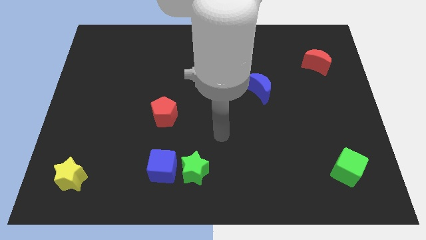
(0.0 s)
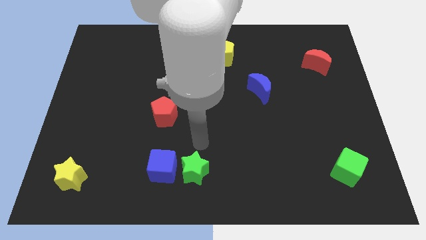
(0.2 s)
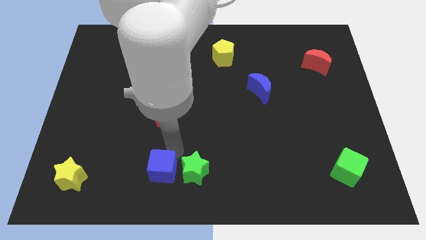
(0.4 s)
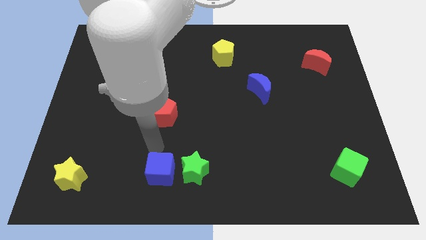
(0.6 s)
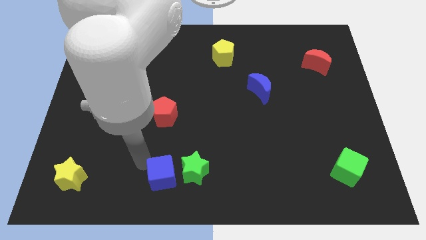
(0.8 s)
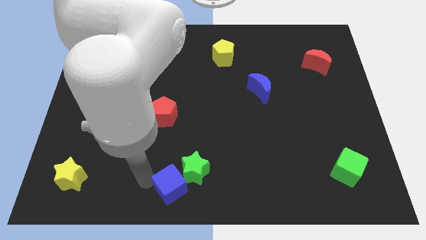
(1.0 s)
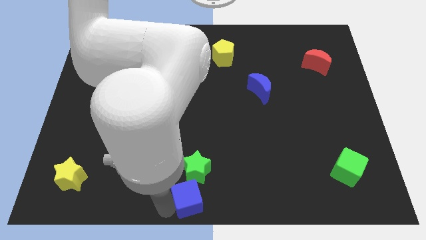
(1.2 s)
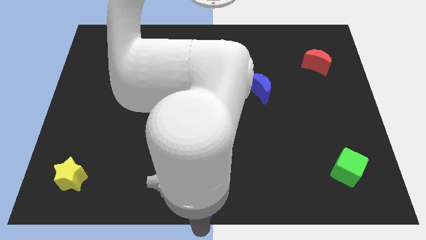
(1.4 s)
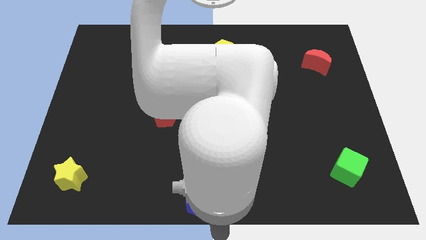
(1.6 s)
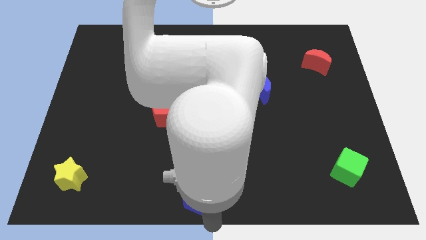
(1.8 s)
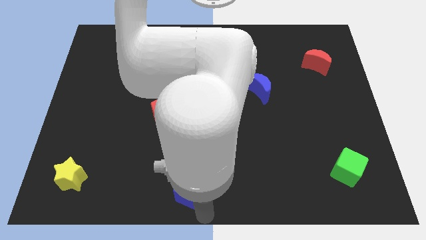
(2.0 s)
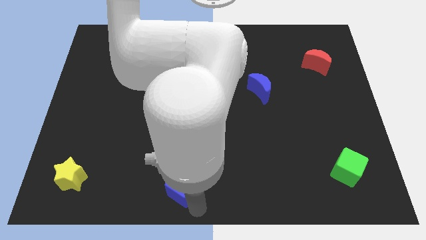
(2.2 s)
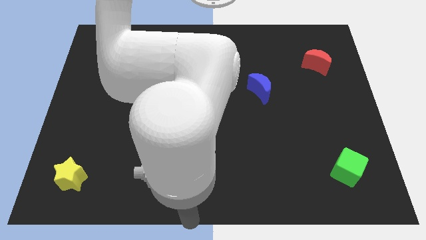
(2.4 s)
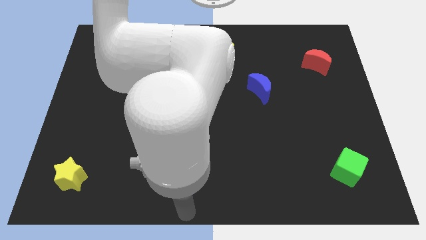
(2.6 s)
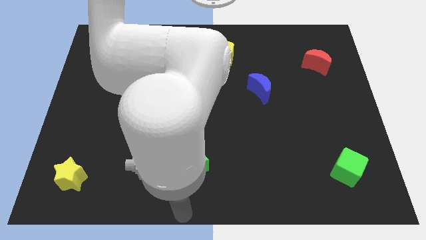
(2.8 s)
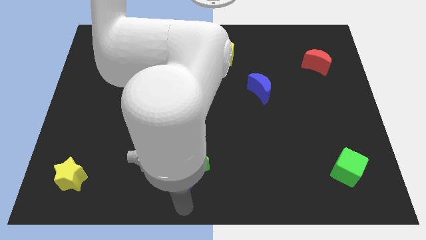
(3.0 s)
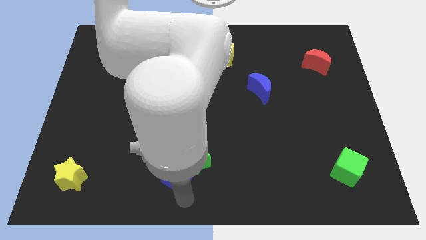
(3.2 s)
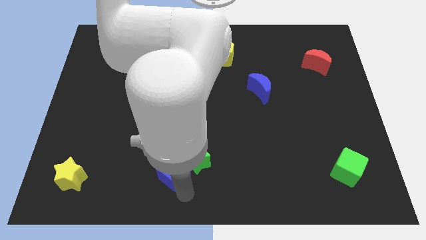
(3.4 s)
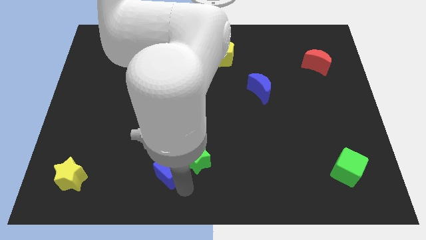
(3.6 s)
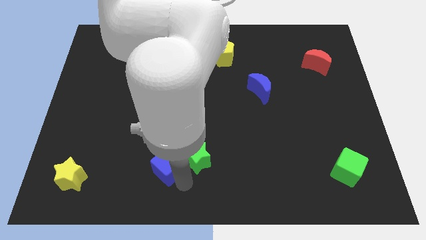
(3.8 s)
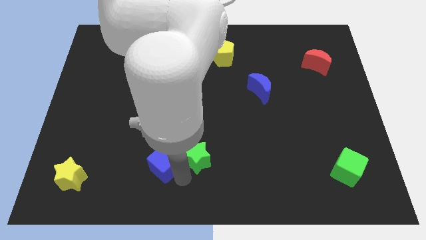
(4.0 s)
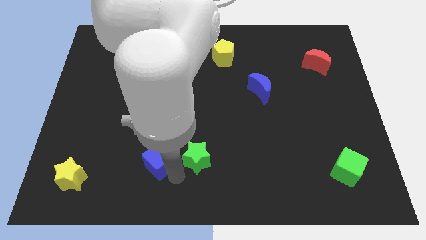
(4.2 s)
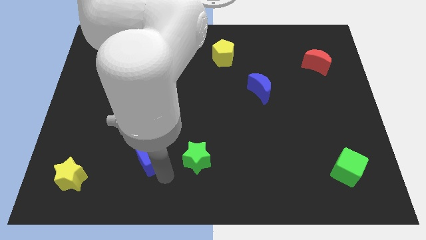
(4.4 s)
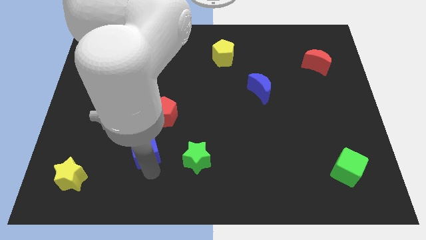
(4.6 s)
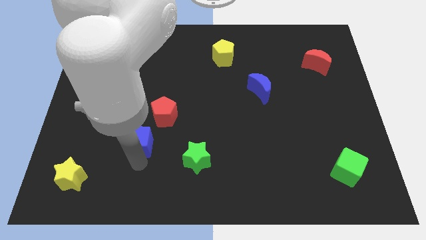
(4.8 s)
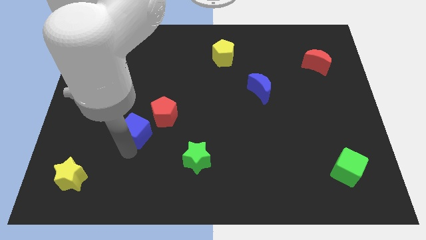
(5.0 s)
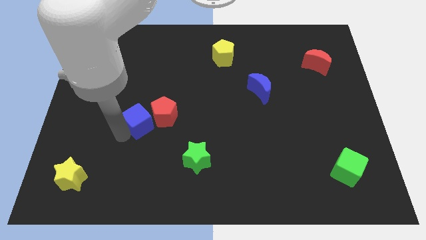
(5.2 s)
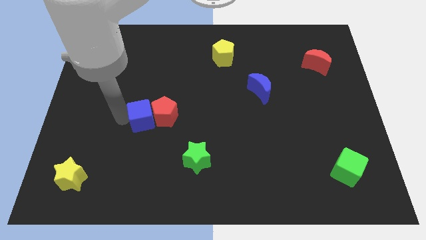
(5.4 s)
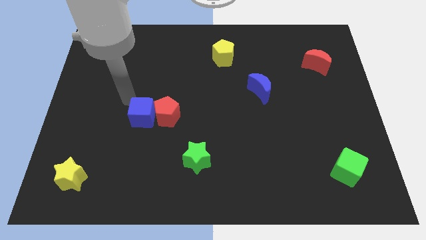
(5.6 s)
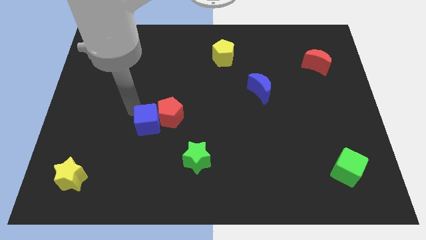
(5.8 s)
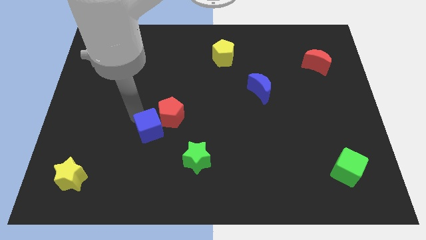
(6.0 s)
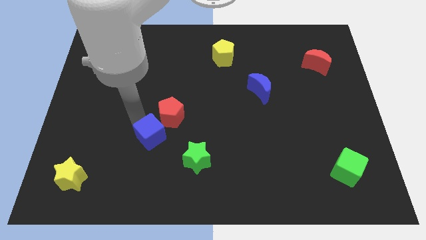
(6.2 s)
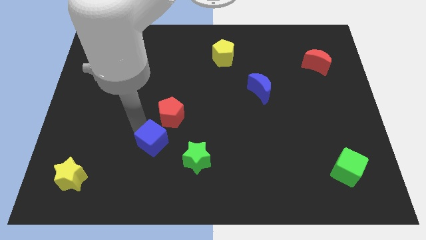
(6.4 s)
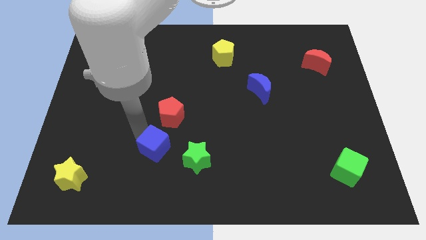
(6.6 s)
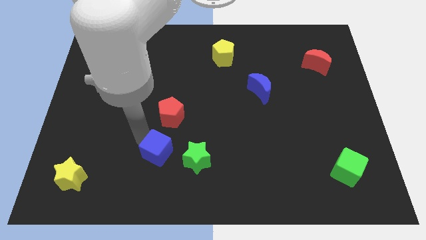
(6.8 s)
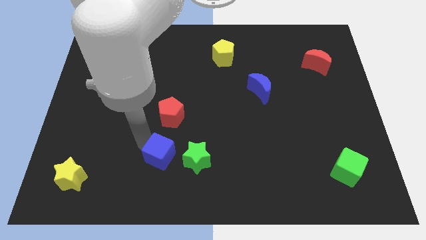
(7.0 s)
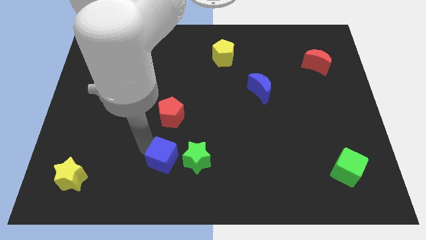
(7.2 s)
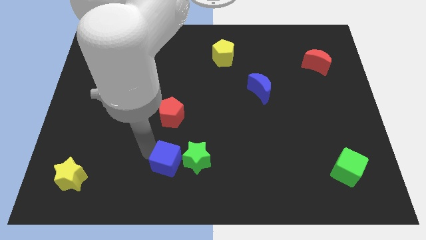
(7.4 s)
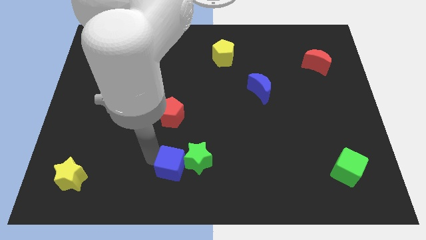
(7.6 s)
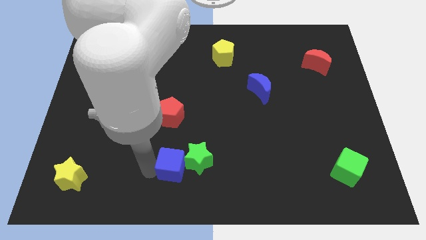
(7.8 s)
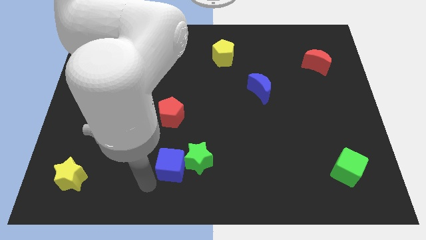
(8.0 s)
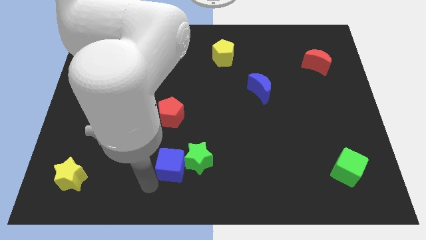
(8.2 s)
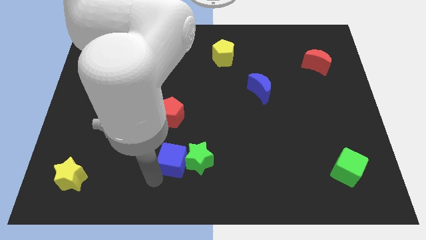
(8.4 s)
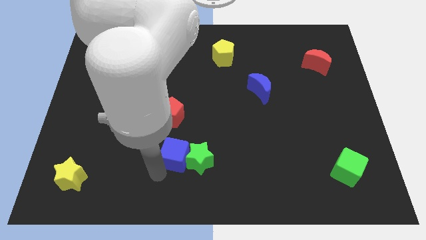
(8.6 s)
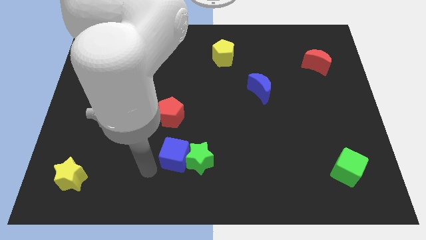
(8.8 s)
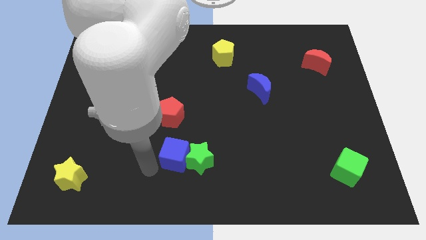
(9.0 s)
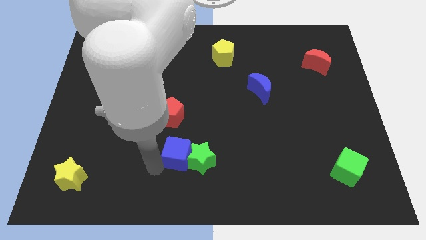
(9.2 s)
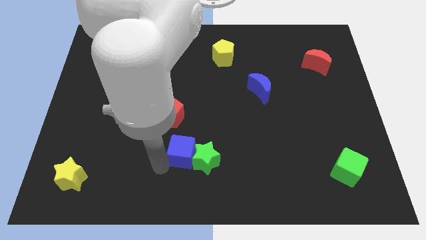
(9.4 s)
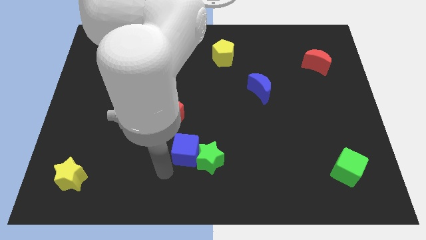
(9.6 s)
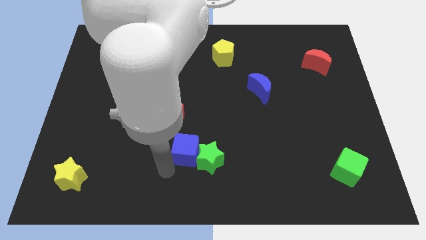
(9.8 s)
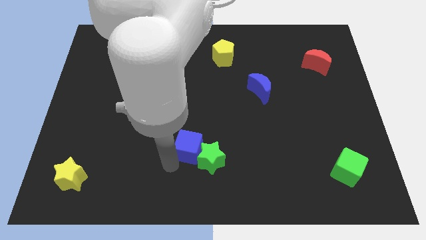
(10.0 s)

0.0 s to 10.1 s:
slide the blue cube a little bit up and then to the right

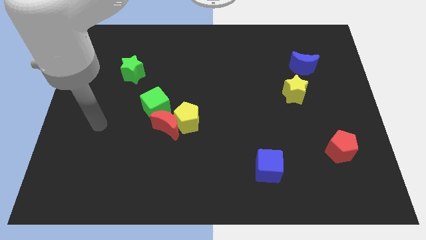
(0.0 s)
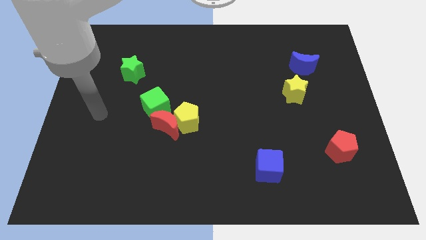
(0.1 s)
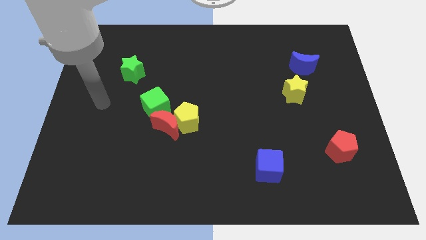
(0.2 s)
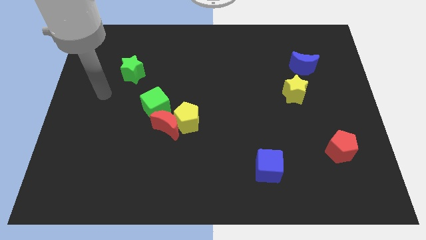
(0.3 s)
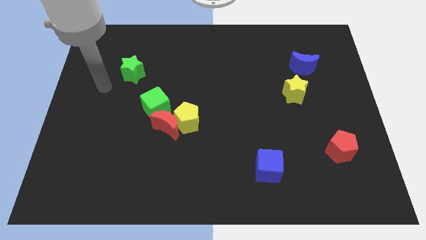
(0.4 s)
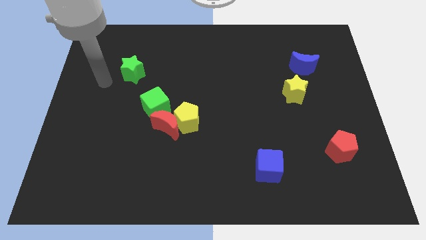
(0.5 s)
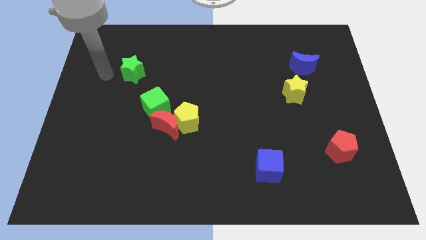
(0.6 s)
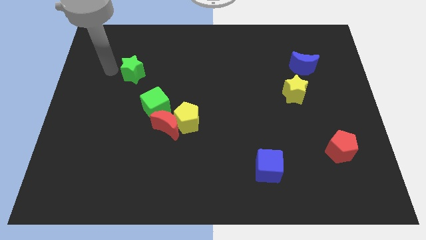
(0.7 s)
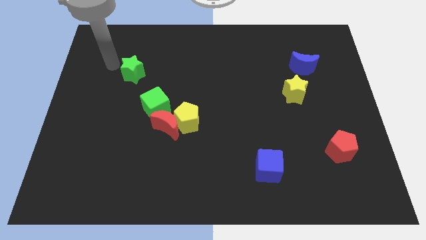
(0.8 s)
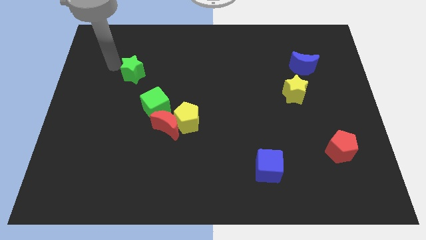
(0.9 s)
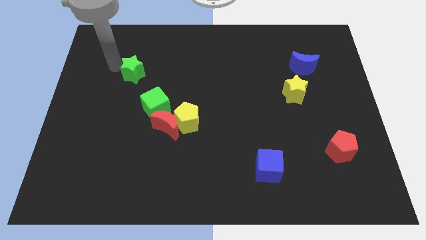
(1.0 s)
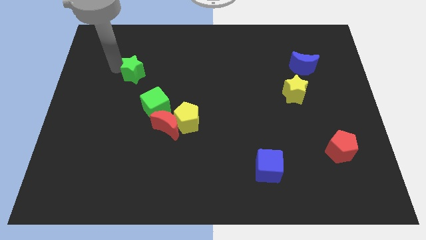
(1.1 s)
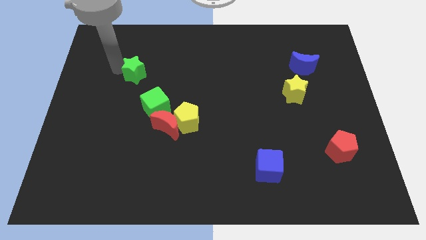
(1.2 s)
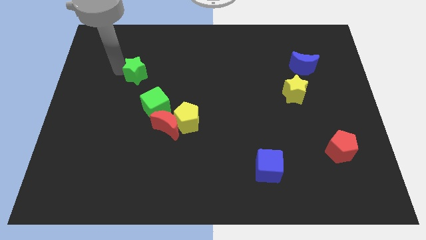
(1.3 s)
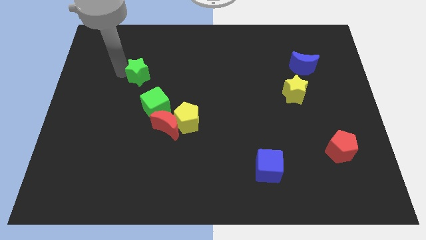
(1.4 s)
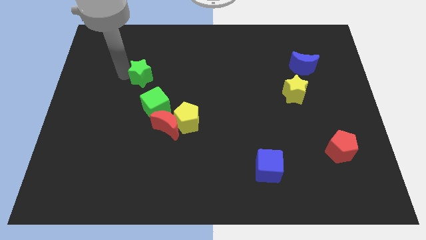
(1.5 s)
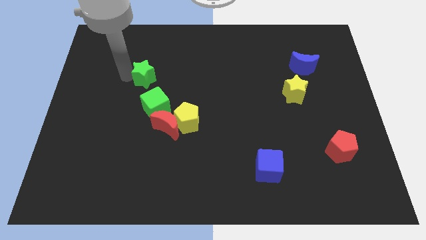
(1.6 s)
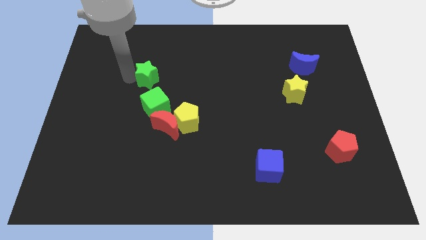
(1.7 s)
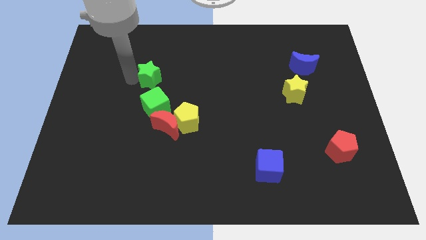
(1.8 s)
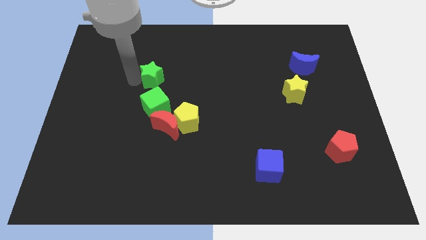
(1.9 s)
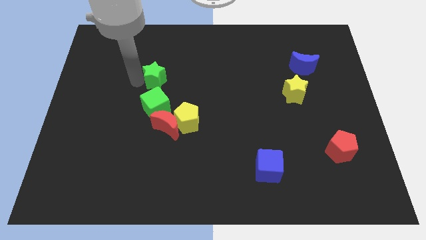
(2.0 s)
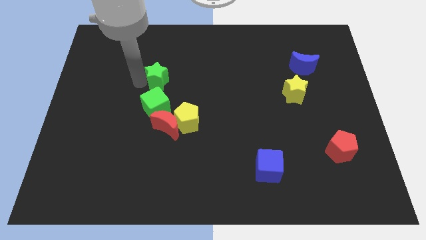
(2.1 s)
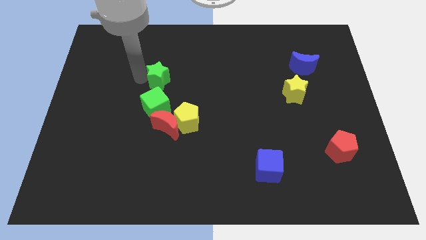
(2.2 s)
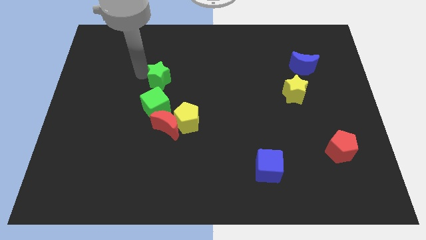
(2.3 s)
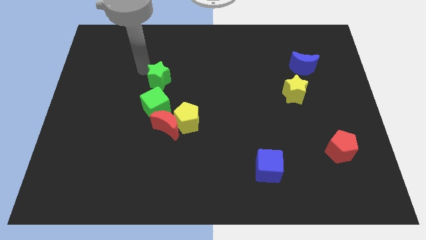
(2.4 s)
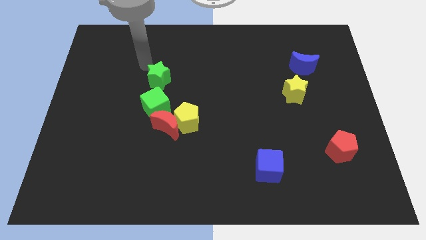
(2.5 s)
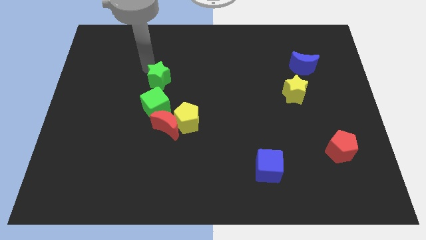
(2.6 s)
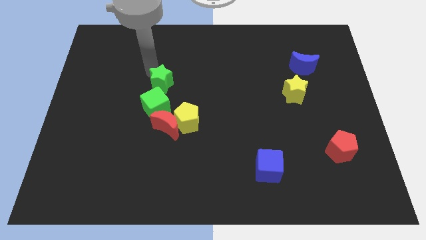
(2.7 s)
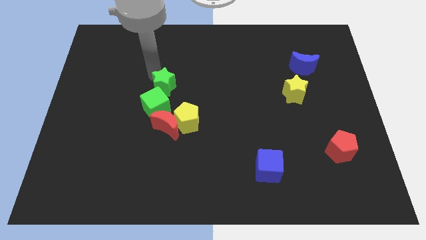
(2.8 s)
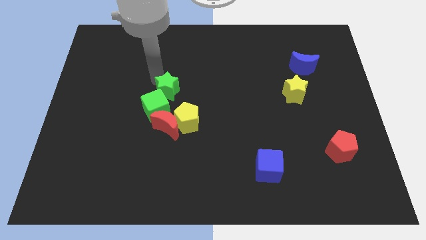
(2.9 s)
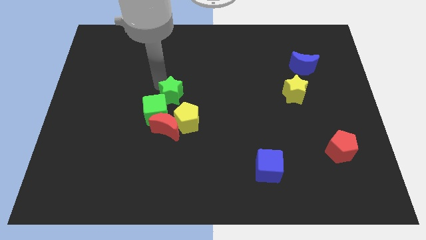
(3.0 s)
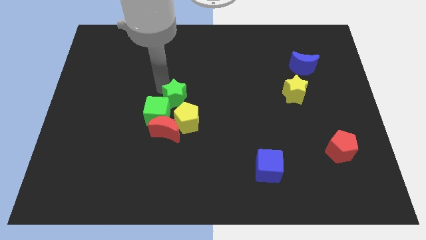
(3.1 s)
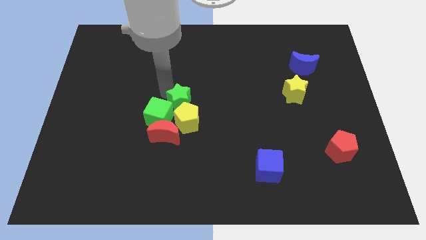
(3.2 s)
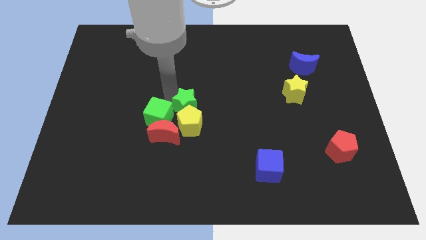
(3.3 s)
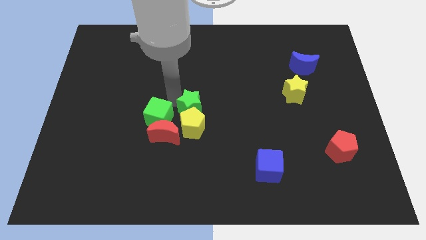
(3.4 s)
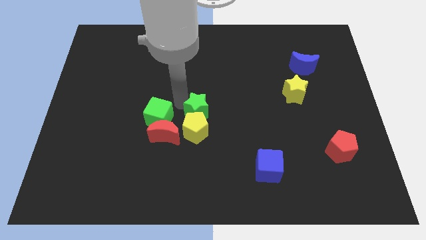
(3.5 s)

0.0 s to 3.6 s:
push the green star downwards and right diagonally
